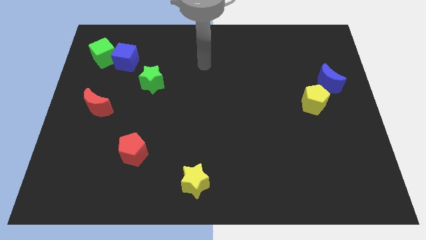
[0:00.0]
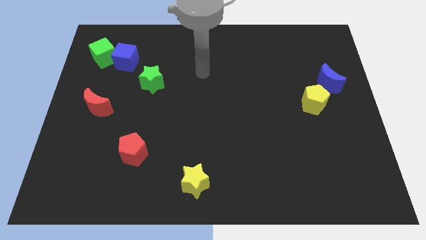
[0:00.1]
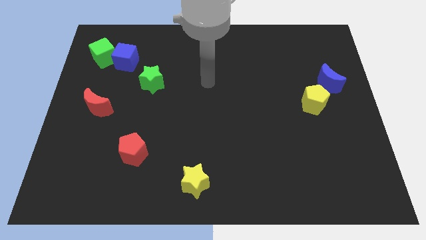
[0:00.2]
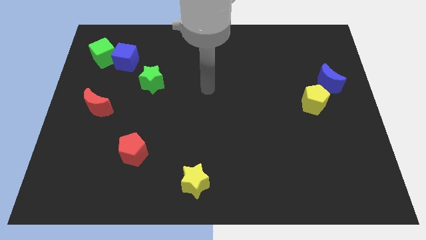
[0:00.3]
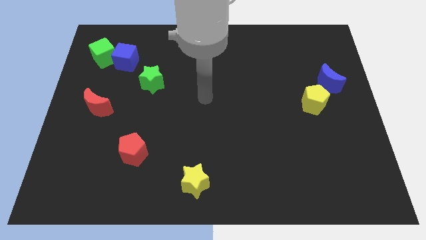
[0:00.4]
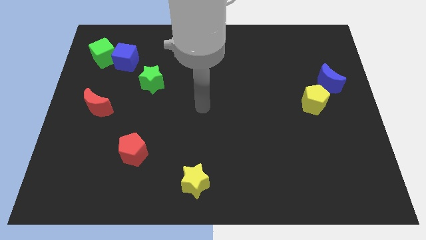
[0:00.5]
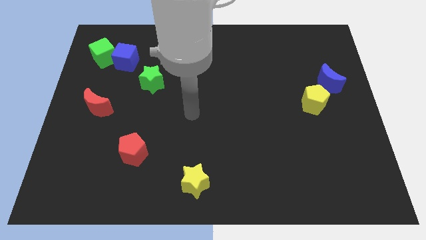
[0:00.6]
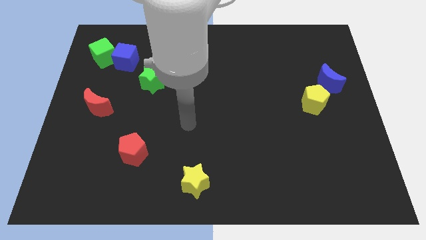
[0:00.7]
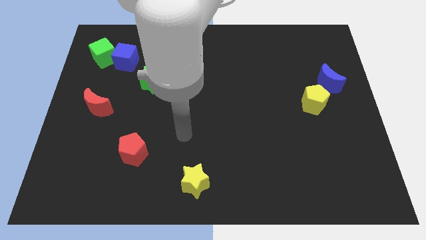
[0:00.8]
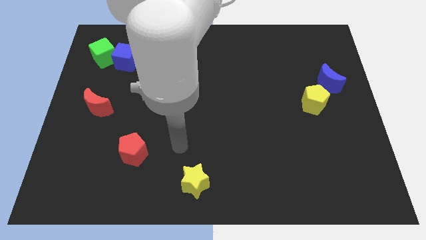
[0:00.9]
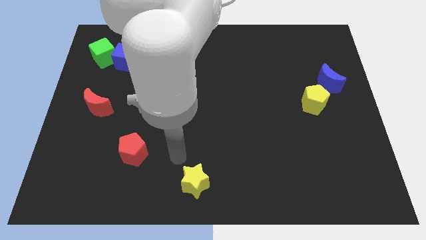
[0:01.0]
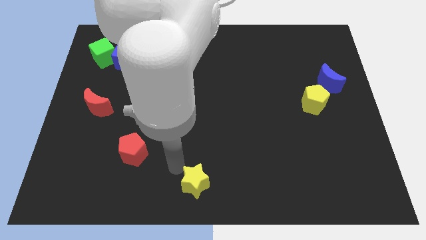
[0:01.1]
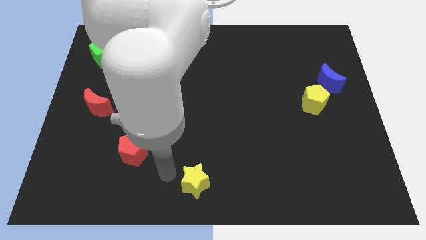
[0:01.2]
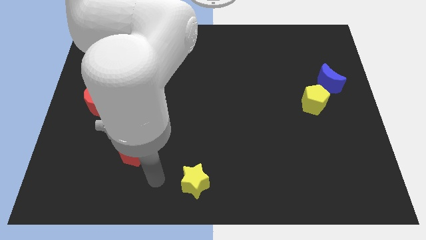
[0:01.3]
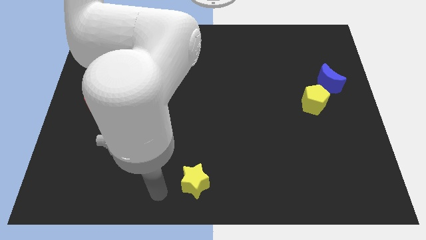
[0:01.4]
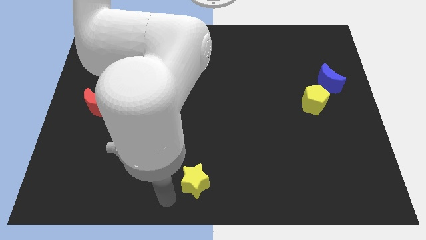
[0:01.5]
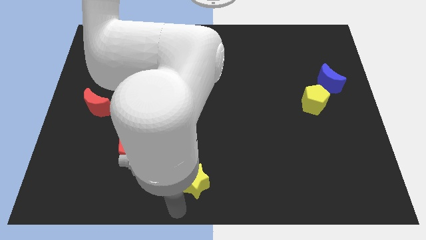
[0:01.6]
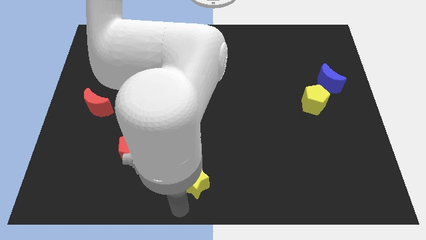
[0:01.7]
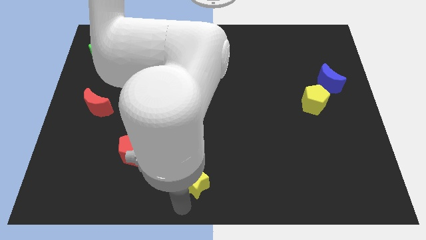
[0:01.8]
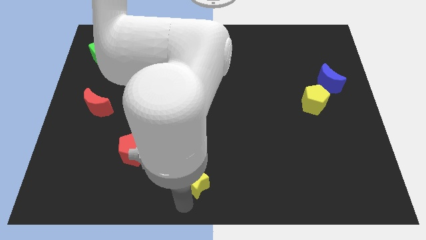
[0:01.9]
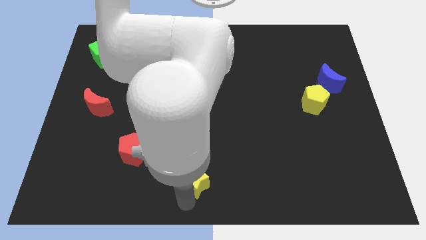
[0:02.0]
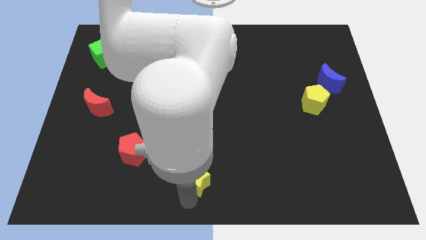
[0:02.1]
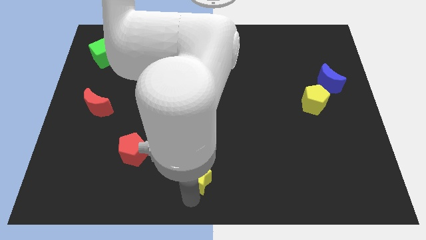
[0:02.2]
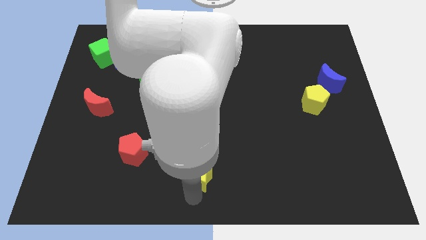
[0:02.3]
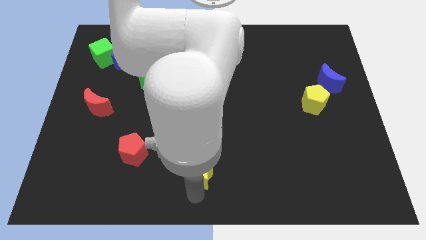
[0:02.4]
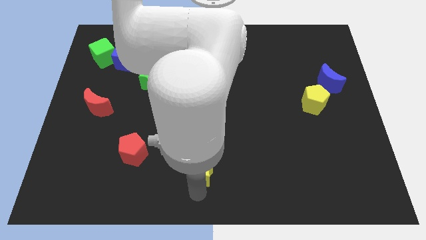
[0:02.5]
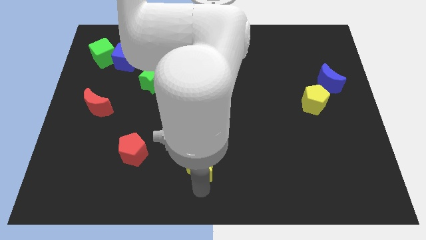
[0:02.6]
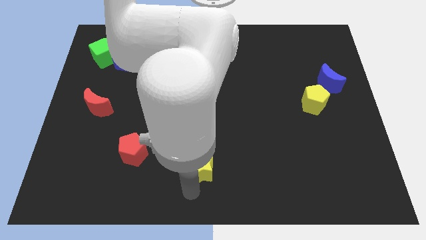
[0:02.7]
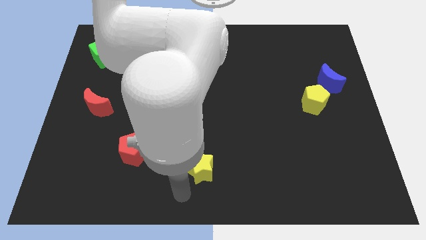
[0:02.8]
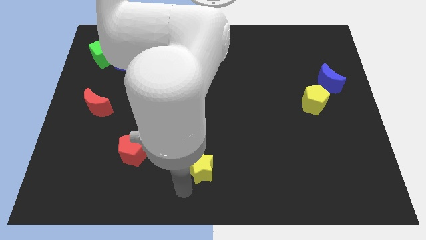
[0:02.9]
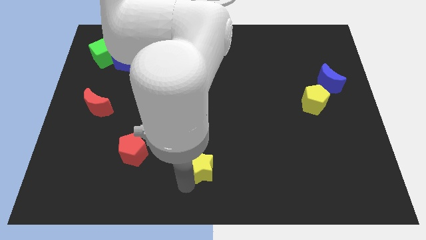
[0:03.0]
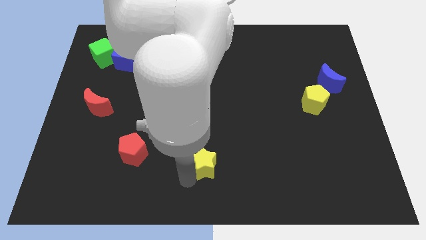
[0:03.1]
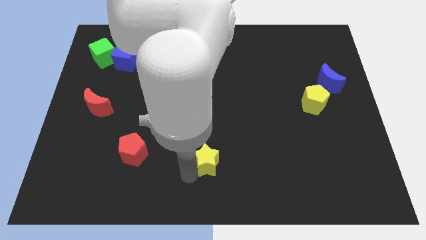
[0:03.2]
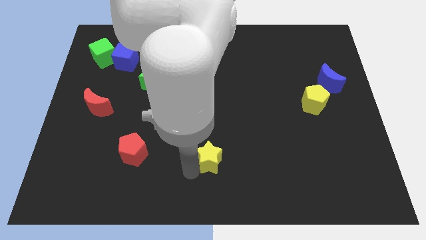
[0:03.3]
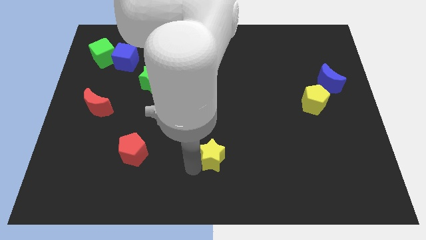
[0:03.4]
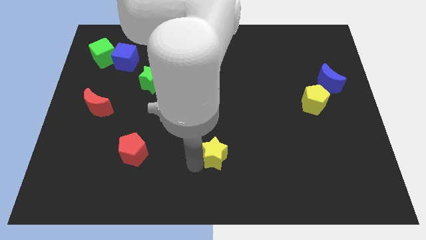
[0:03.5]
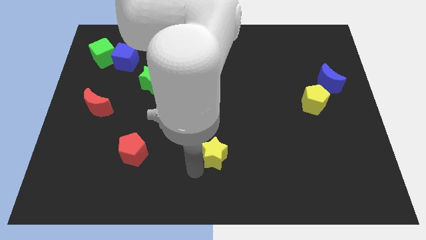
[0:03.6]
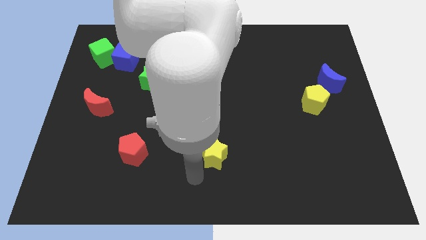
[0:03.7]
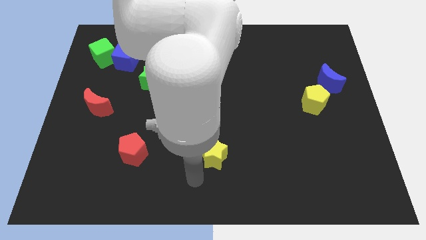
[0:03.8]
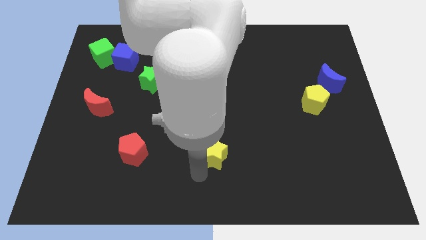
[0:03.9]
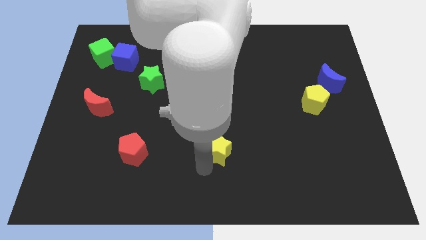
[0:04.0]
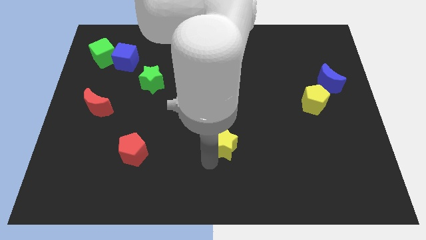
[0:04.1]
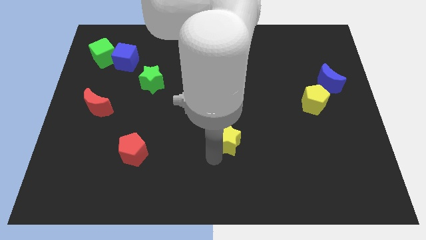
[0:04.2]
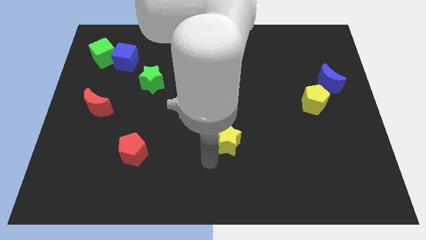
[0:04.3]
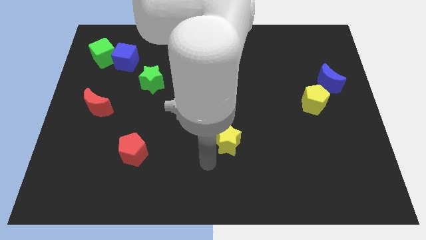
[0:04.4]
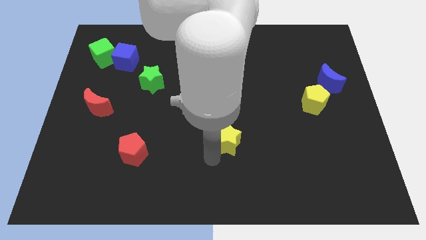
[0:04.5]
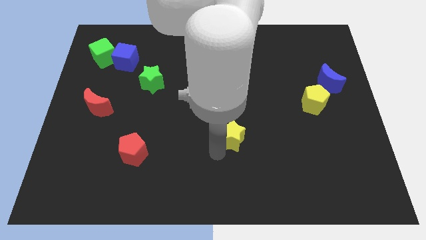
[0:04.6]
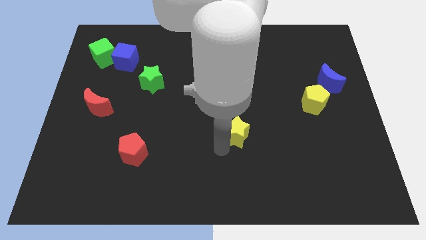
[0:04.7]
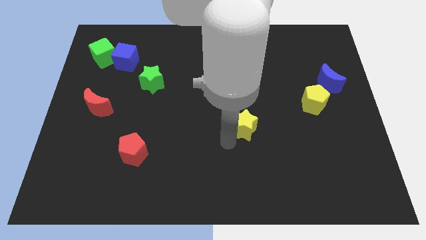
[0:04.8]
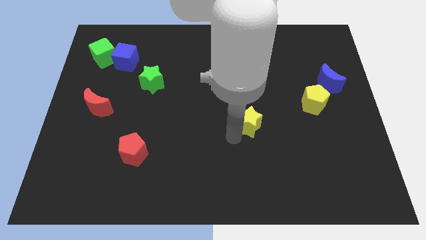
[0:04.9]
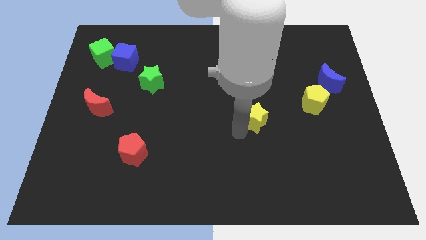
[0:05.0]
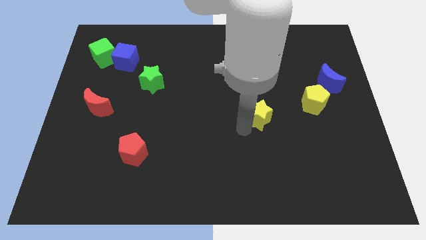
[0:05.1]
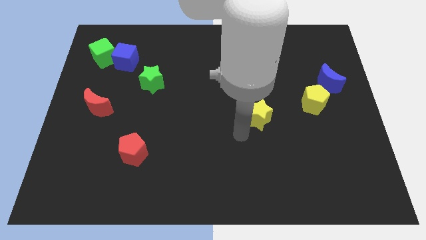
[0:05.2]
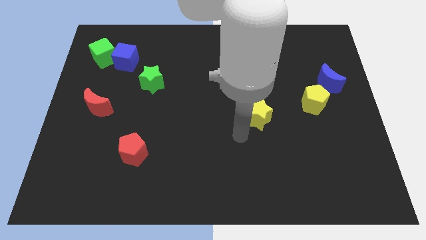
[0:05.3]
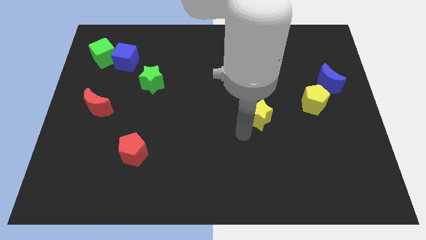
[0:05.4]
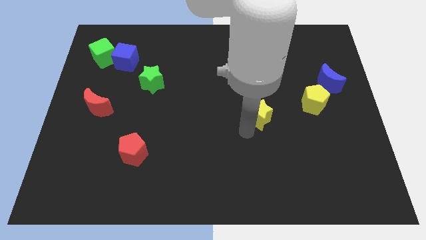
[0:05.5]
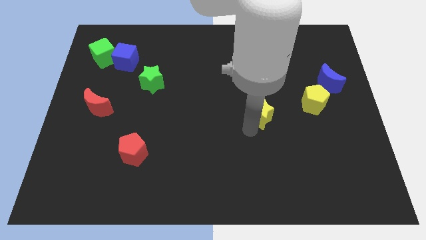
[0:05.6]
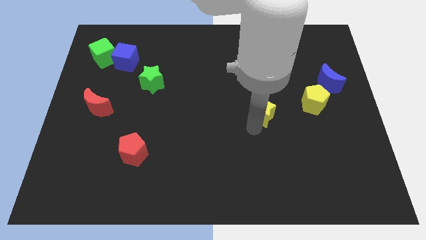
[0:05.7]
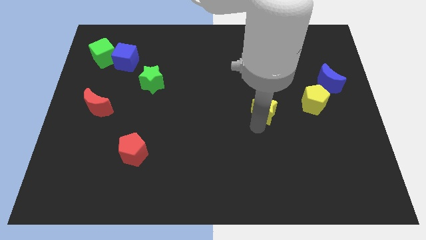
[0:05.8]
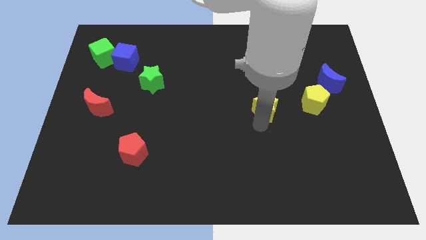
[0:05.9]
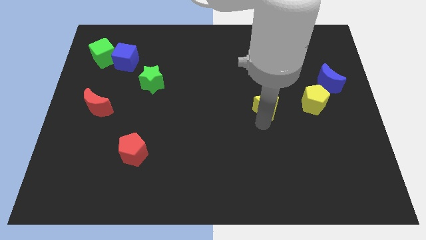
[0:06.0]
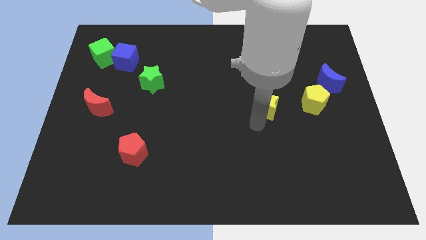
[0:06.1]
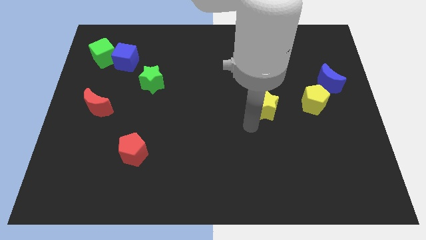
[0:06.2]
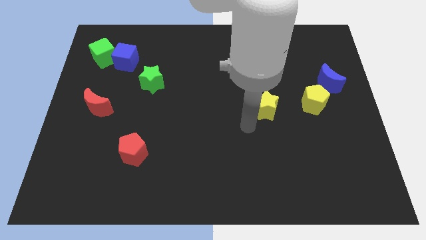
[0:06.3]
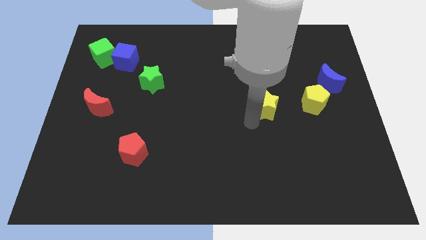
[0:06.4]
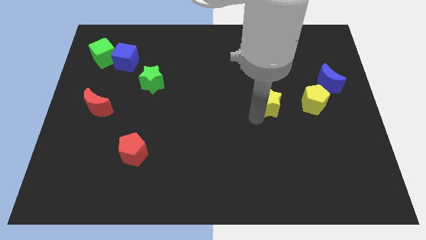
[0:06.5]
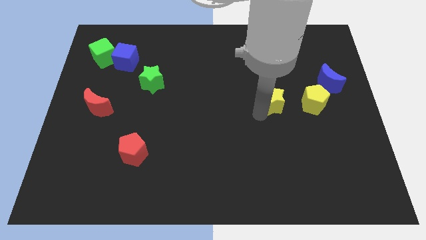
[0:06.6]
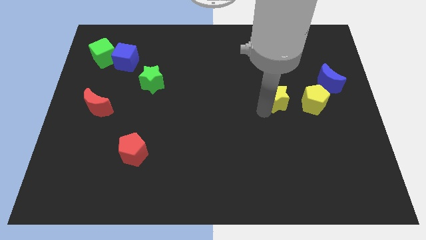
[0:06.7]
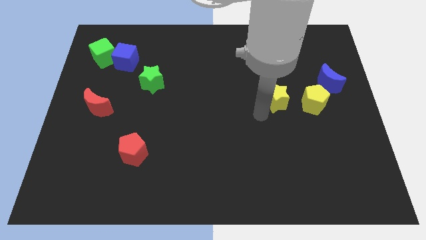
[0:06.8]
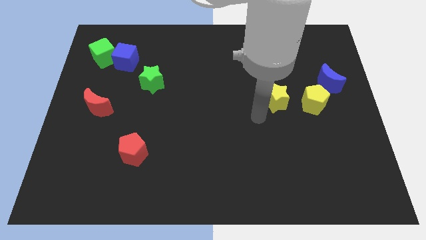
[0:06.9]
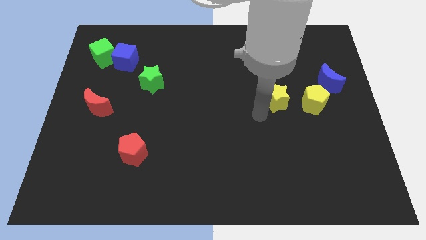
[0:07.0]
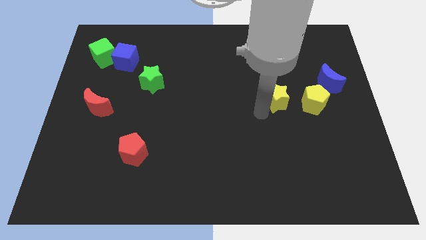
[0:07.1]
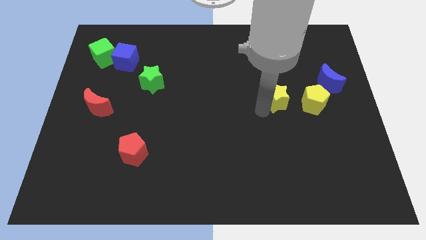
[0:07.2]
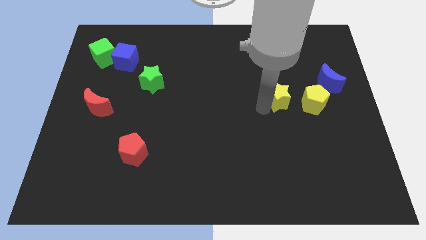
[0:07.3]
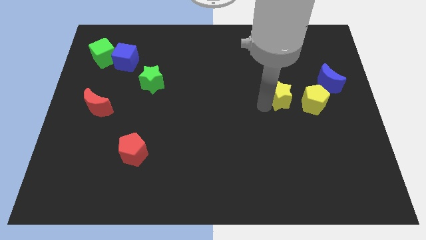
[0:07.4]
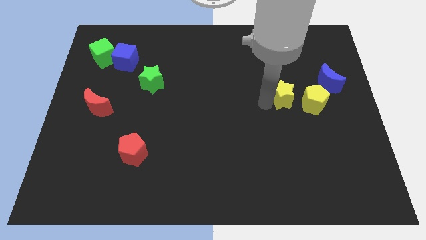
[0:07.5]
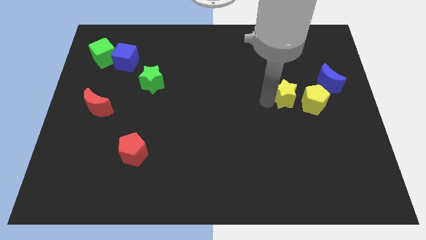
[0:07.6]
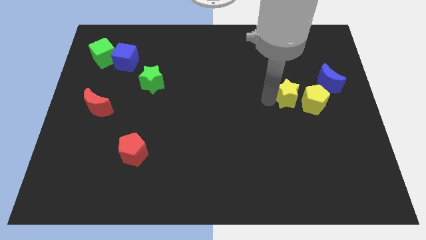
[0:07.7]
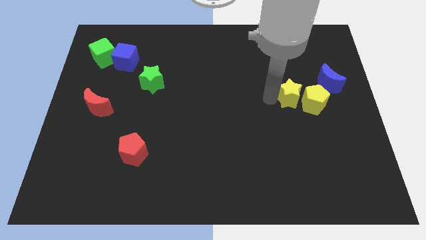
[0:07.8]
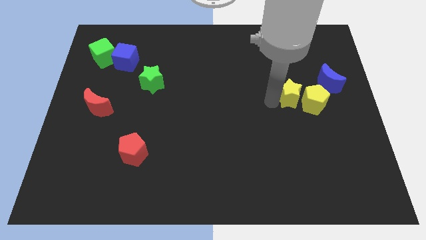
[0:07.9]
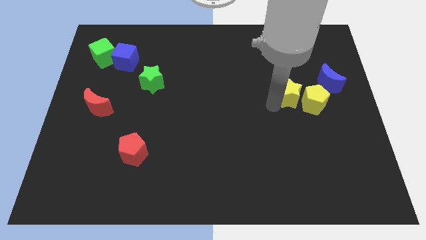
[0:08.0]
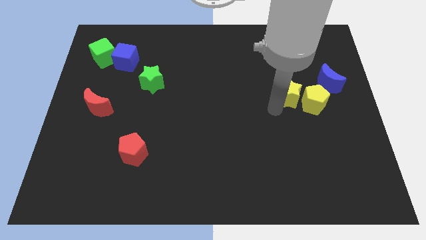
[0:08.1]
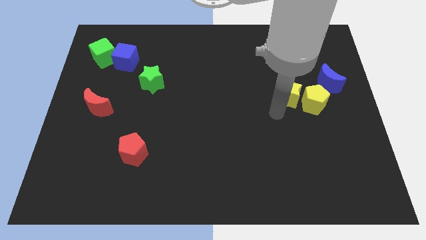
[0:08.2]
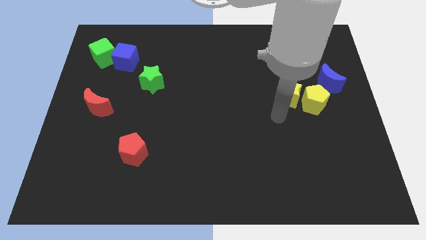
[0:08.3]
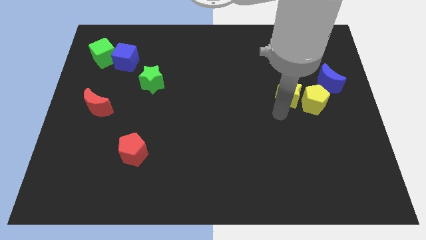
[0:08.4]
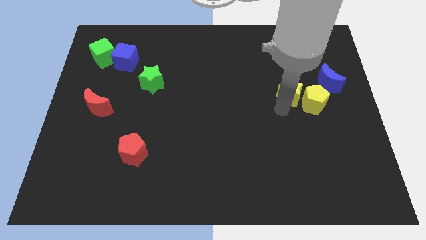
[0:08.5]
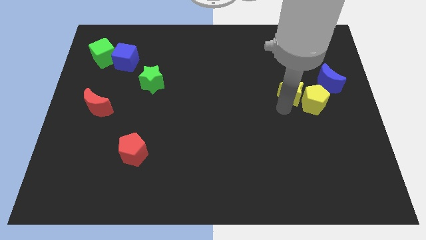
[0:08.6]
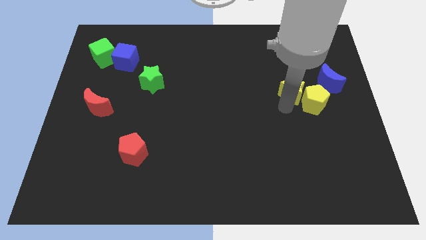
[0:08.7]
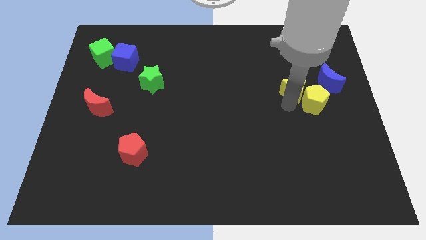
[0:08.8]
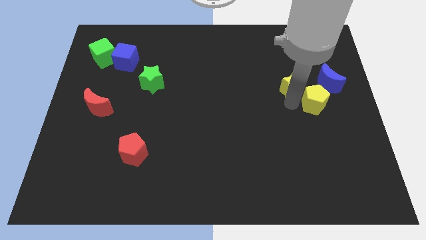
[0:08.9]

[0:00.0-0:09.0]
put the yellow star to the top side of the yellow pentagon
